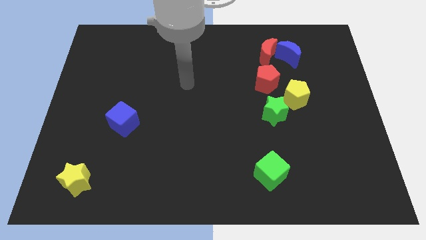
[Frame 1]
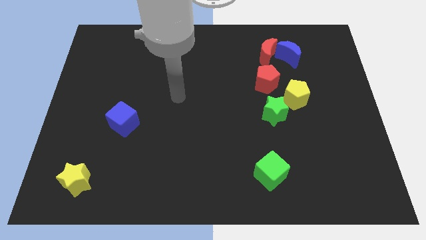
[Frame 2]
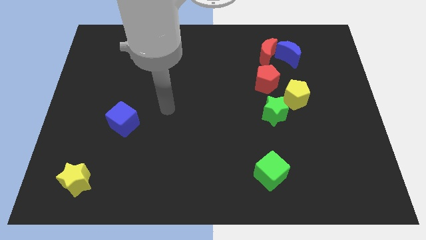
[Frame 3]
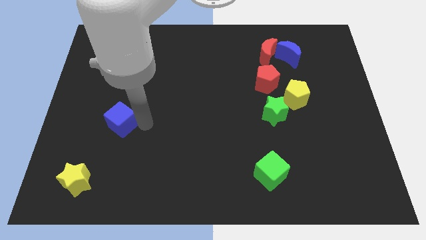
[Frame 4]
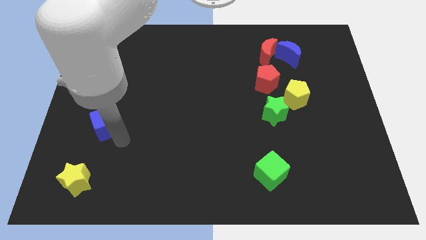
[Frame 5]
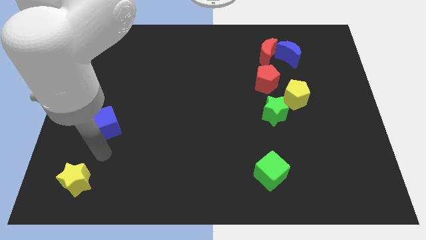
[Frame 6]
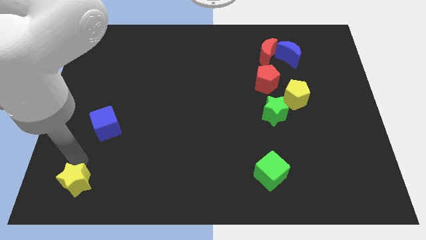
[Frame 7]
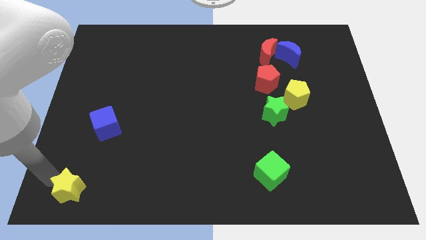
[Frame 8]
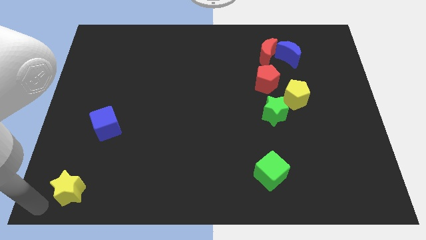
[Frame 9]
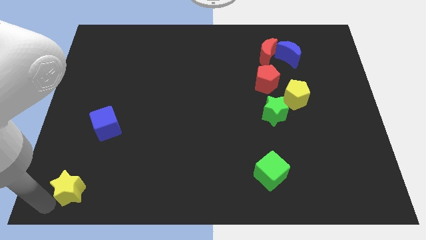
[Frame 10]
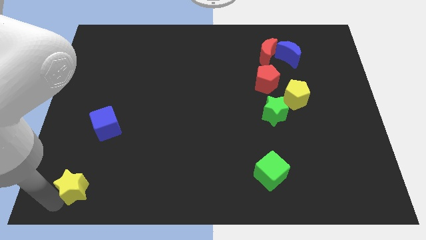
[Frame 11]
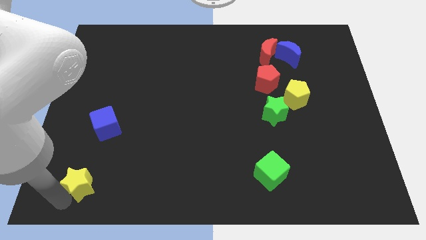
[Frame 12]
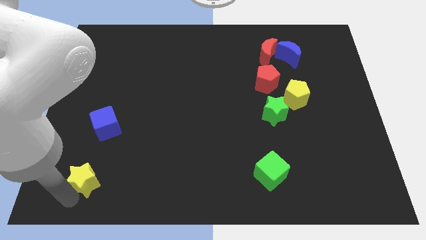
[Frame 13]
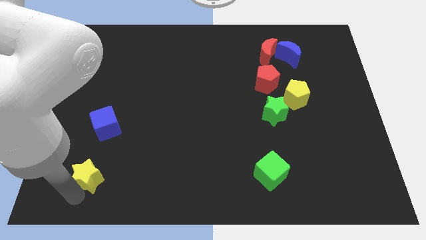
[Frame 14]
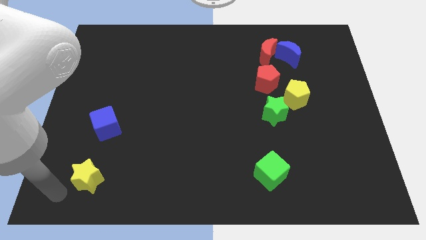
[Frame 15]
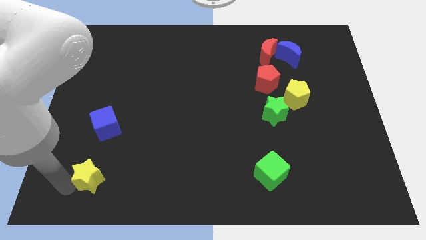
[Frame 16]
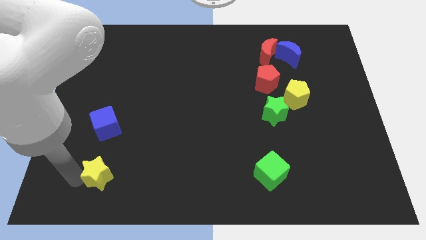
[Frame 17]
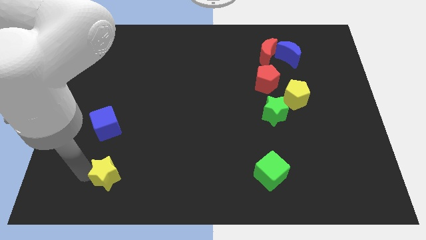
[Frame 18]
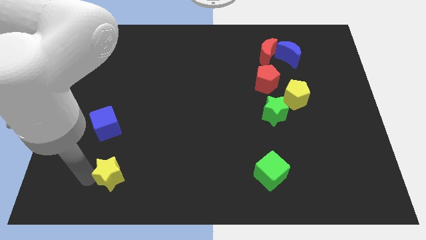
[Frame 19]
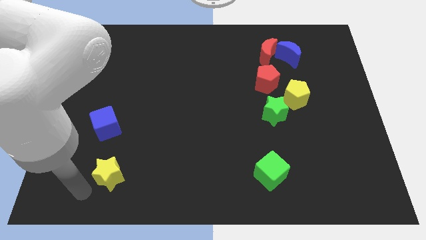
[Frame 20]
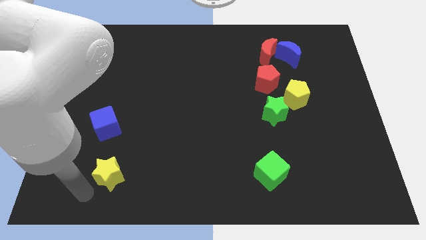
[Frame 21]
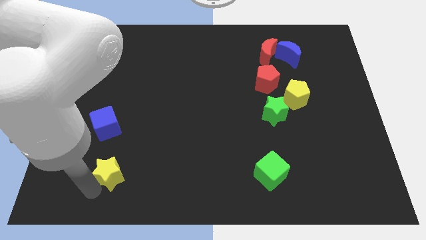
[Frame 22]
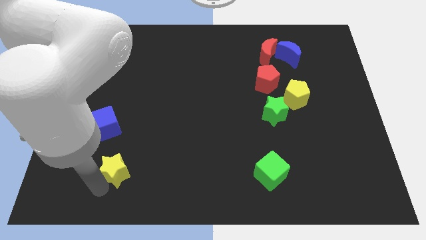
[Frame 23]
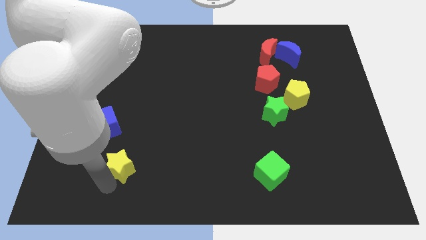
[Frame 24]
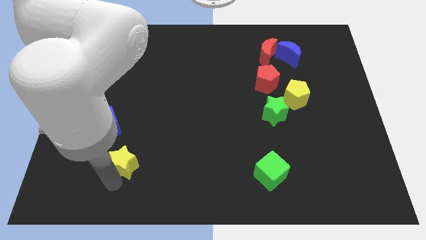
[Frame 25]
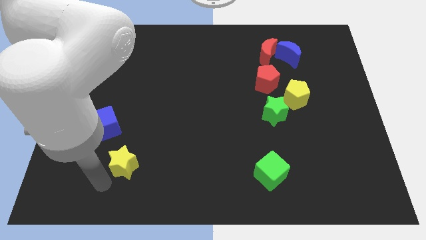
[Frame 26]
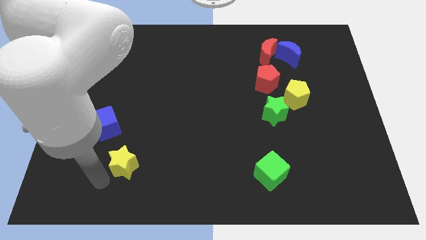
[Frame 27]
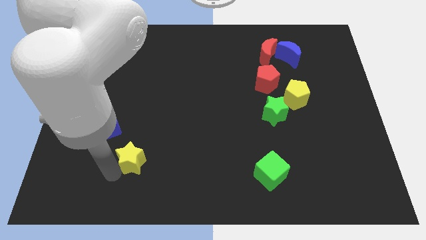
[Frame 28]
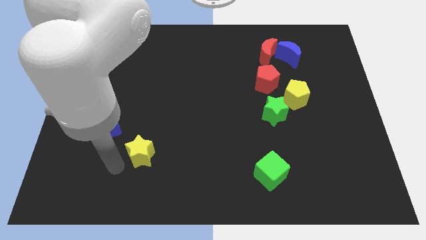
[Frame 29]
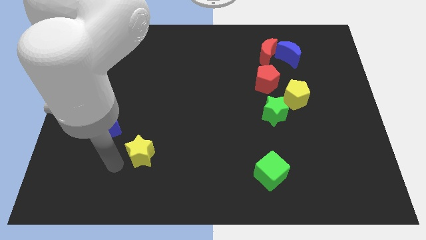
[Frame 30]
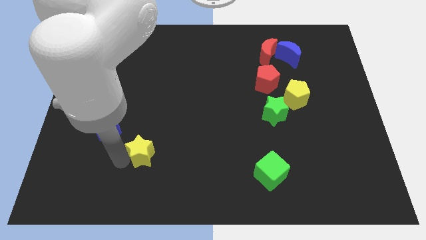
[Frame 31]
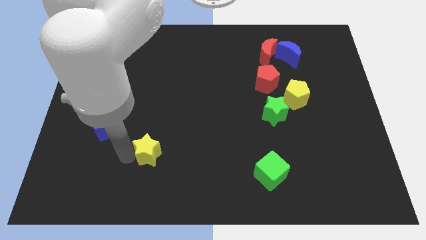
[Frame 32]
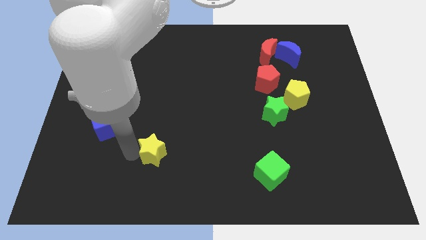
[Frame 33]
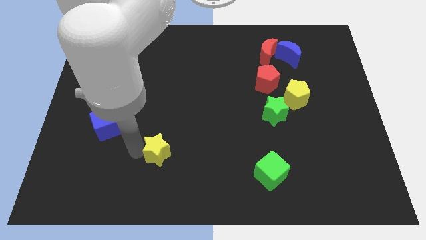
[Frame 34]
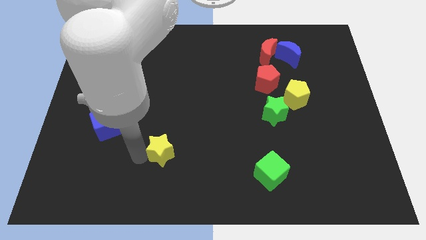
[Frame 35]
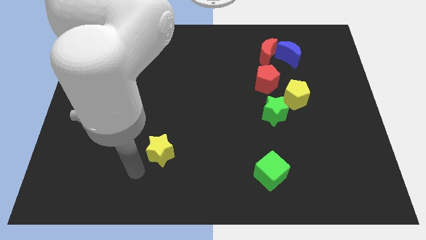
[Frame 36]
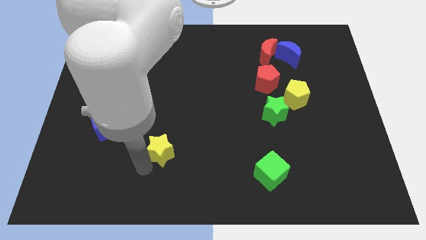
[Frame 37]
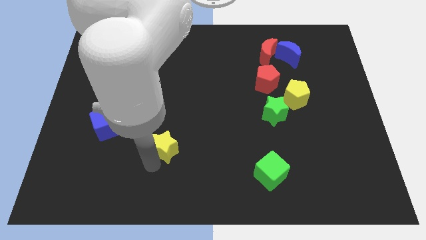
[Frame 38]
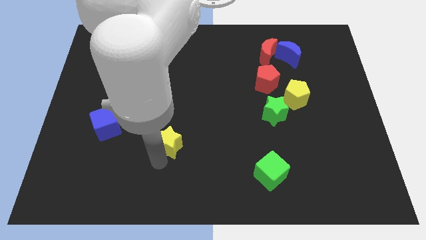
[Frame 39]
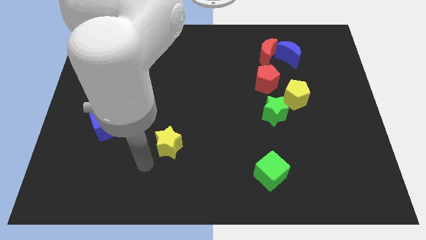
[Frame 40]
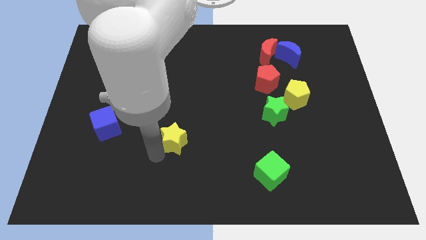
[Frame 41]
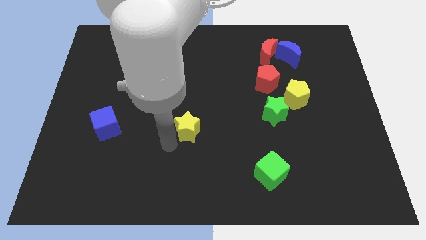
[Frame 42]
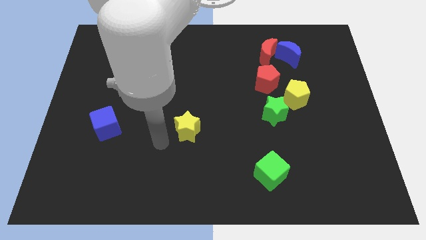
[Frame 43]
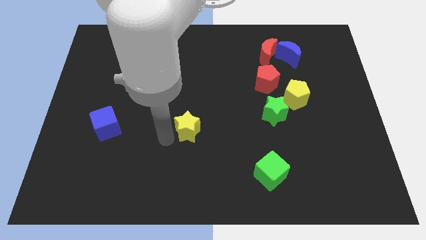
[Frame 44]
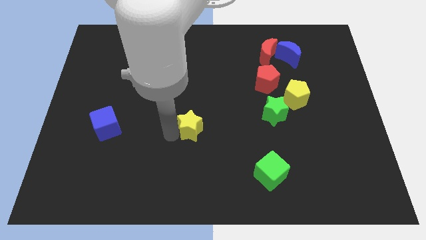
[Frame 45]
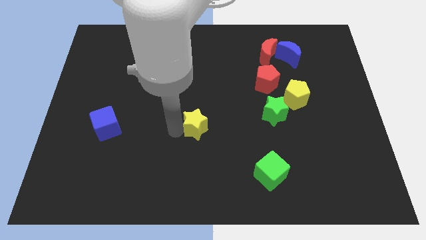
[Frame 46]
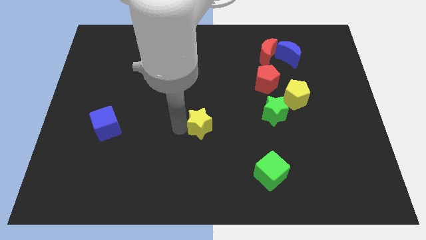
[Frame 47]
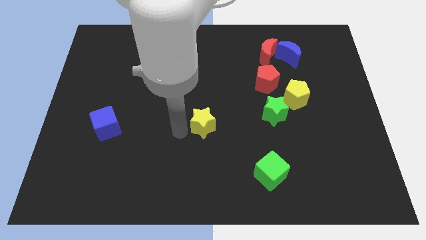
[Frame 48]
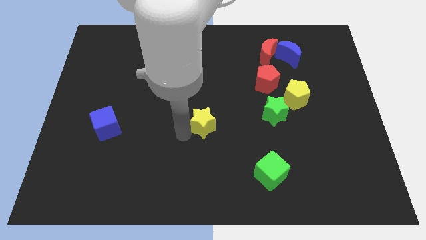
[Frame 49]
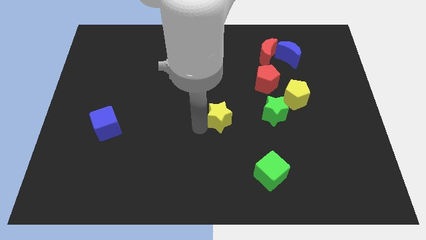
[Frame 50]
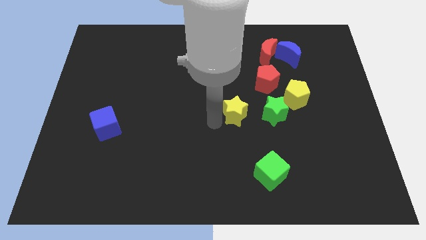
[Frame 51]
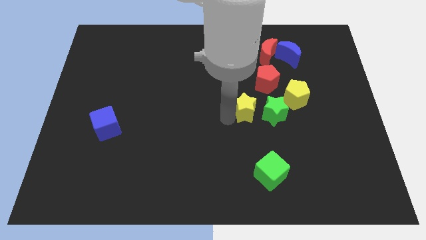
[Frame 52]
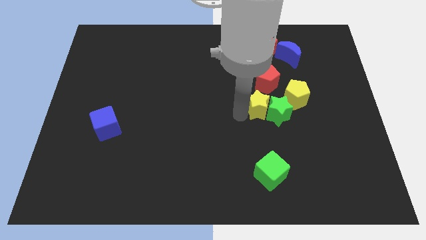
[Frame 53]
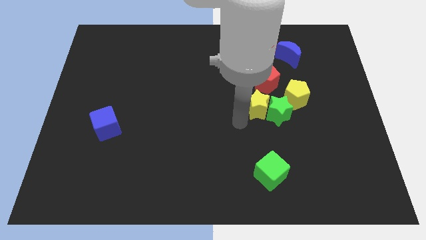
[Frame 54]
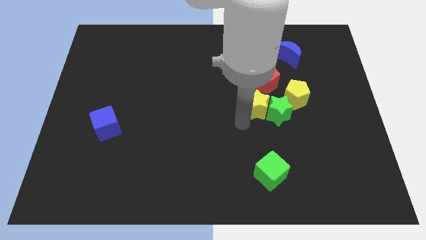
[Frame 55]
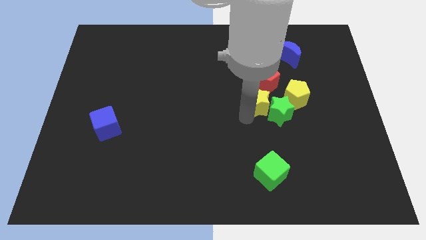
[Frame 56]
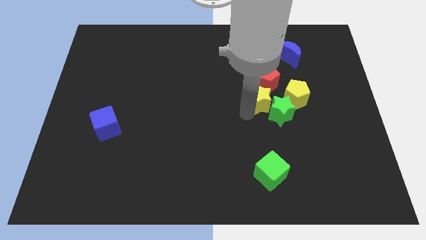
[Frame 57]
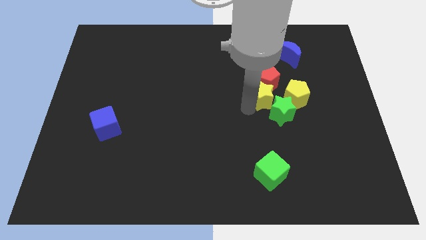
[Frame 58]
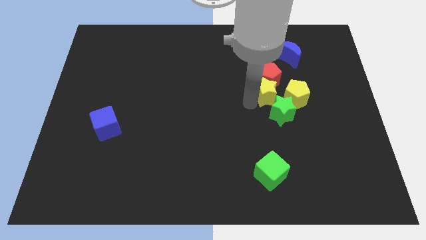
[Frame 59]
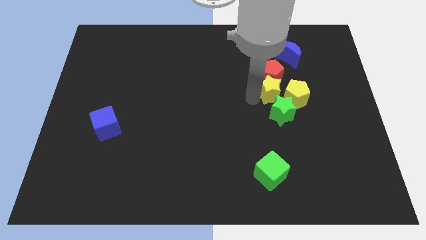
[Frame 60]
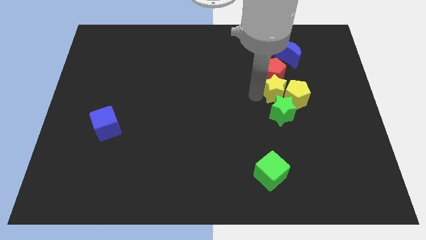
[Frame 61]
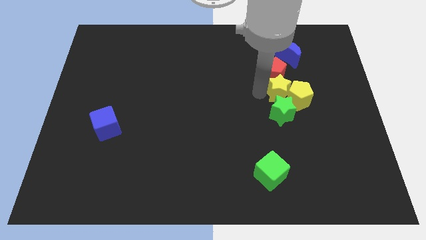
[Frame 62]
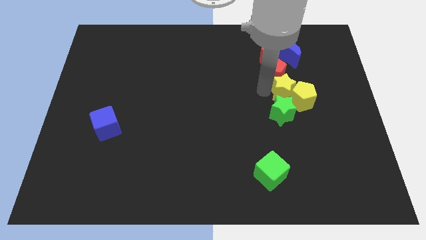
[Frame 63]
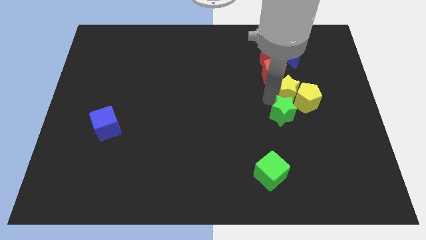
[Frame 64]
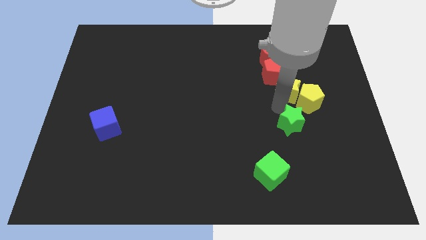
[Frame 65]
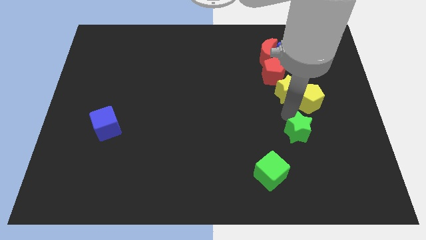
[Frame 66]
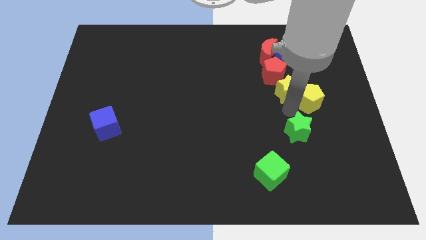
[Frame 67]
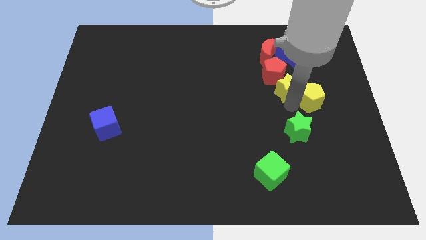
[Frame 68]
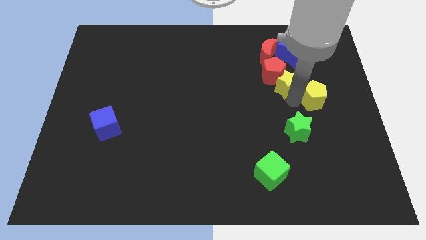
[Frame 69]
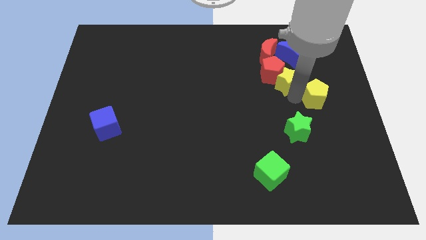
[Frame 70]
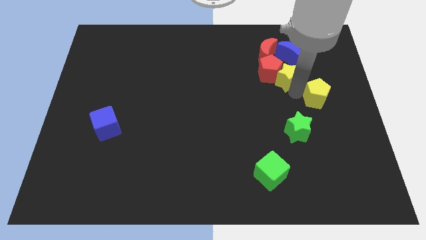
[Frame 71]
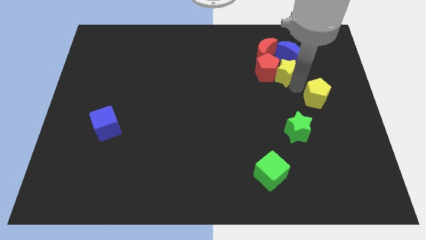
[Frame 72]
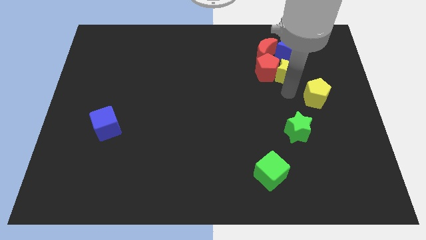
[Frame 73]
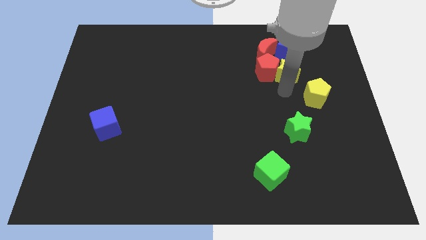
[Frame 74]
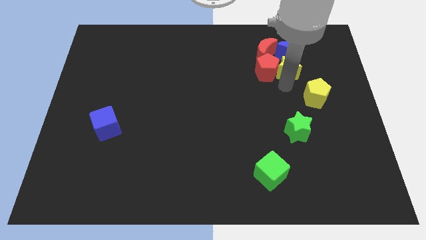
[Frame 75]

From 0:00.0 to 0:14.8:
put the yellow star close to the blue moon
